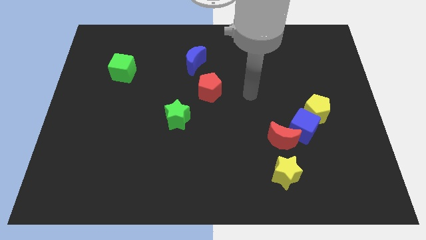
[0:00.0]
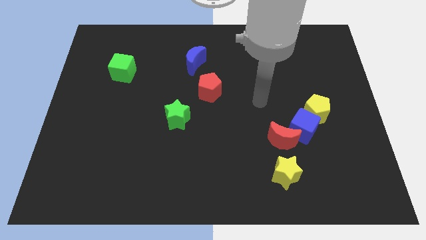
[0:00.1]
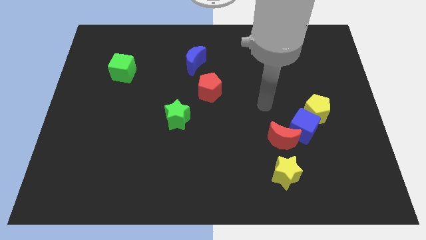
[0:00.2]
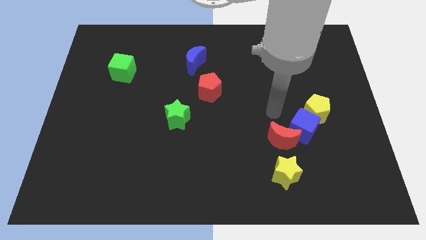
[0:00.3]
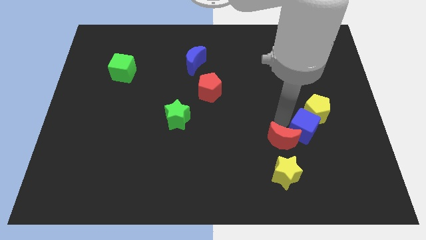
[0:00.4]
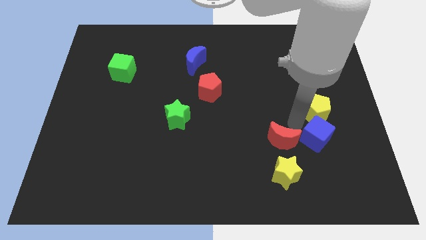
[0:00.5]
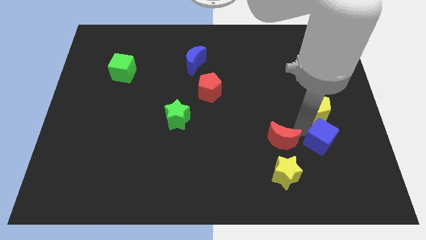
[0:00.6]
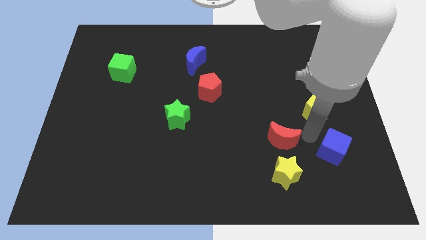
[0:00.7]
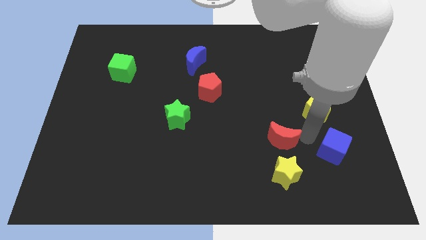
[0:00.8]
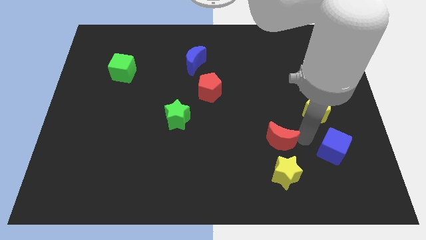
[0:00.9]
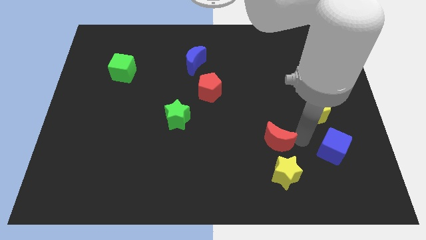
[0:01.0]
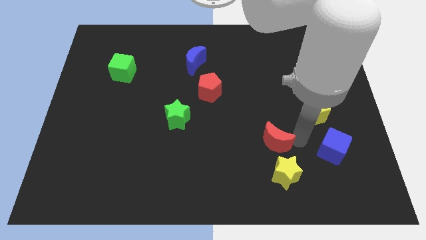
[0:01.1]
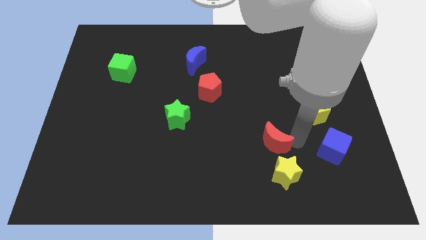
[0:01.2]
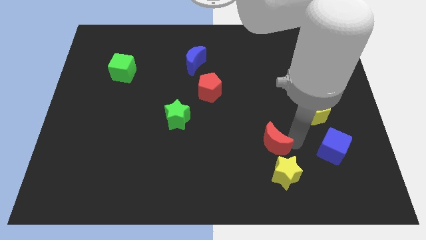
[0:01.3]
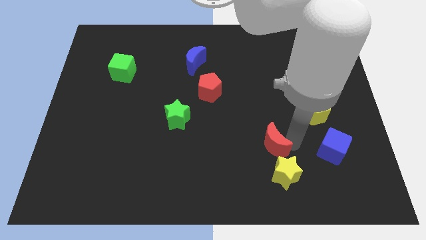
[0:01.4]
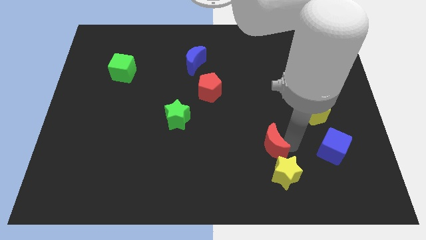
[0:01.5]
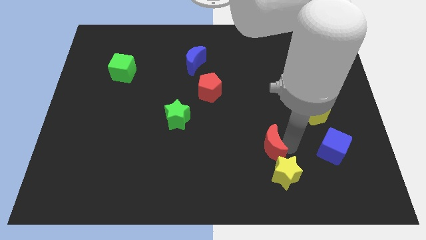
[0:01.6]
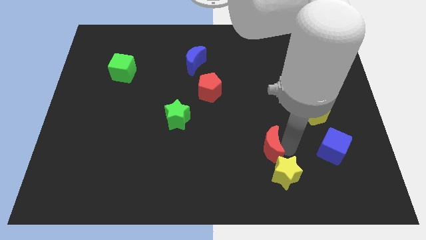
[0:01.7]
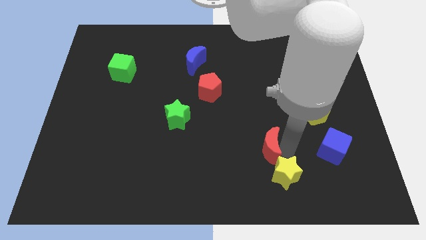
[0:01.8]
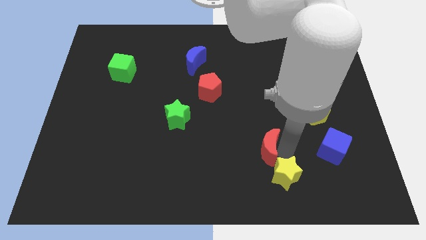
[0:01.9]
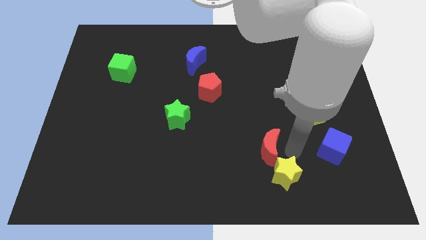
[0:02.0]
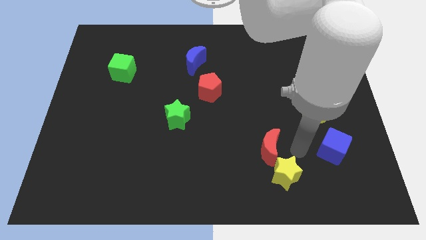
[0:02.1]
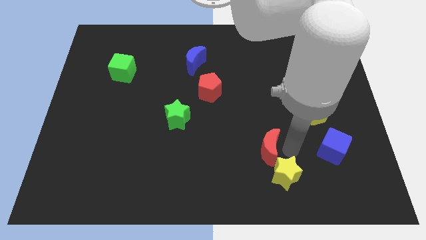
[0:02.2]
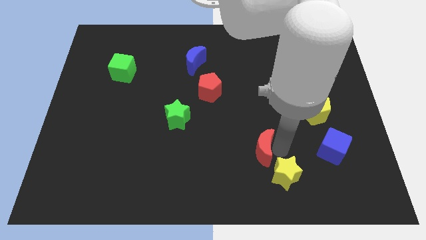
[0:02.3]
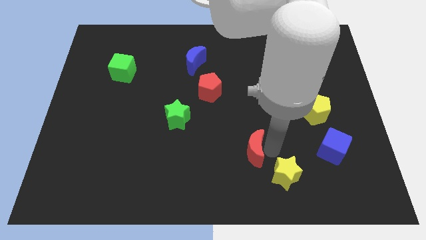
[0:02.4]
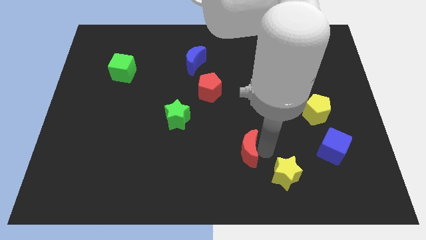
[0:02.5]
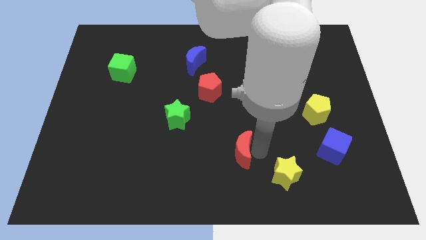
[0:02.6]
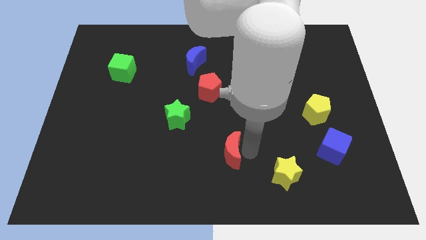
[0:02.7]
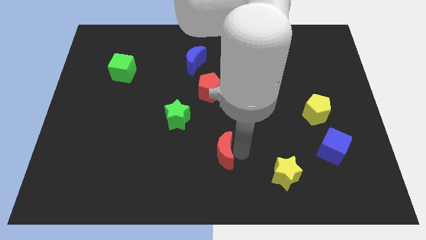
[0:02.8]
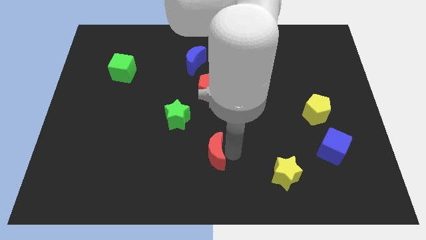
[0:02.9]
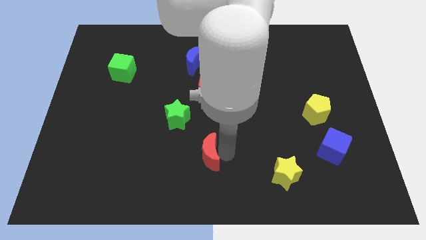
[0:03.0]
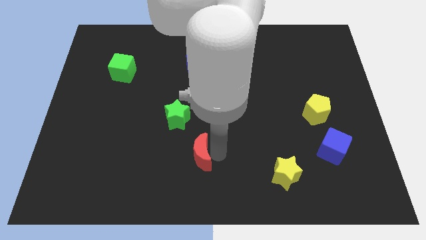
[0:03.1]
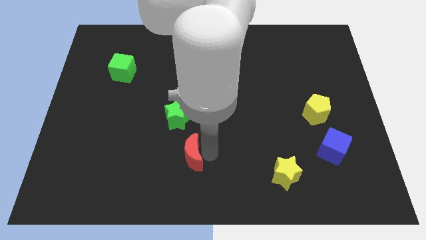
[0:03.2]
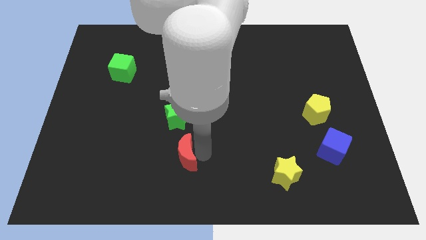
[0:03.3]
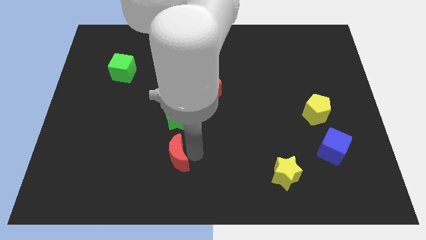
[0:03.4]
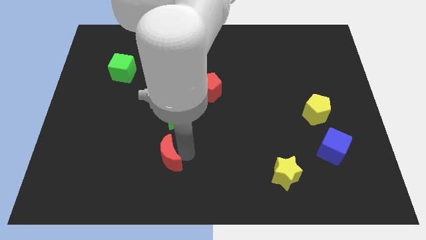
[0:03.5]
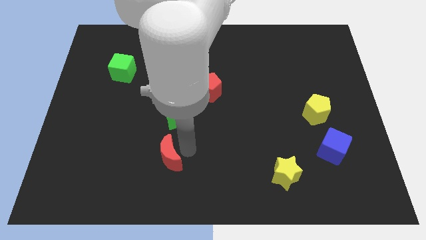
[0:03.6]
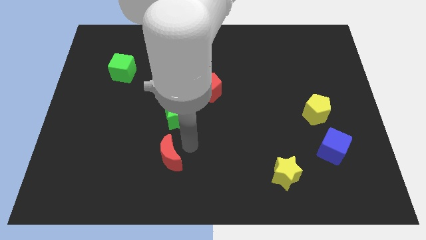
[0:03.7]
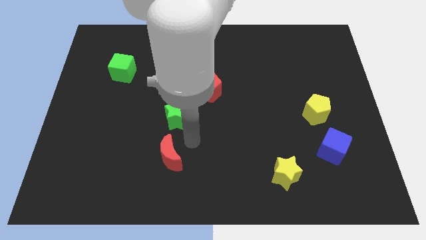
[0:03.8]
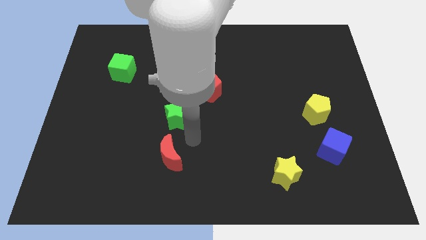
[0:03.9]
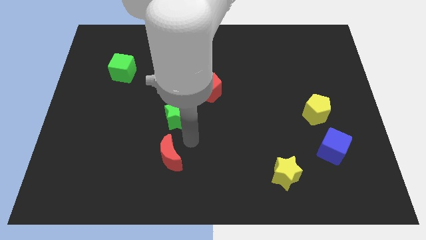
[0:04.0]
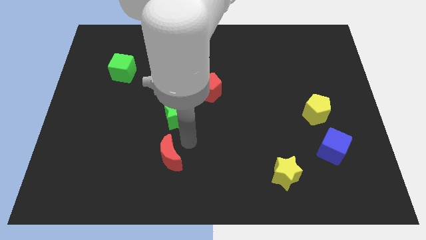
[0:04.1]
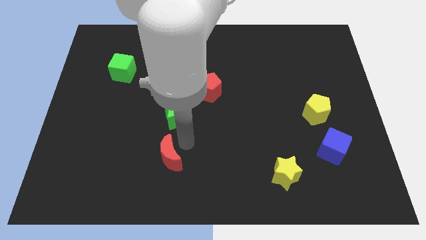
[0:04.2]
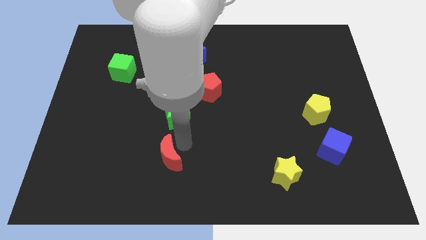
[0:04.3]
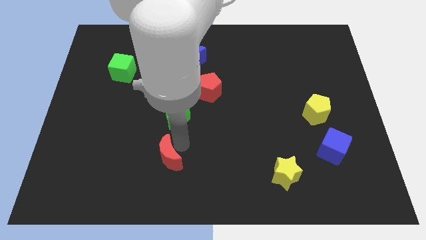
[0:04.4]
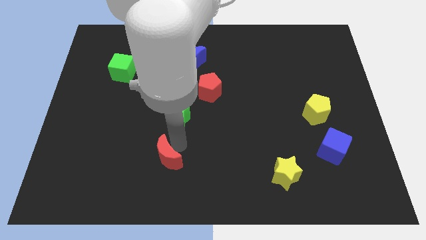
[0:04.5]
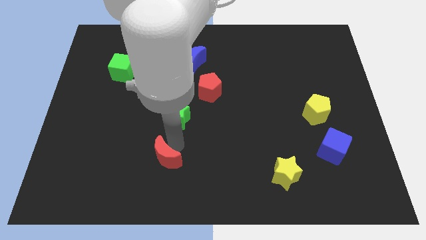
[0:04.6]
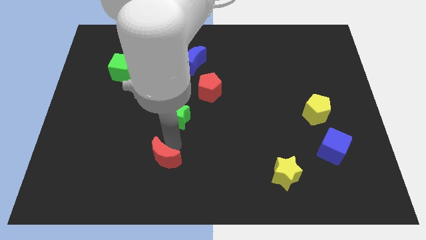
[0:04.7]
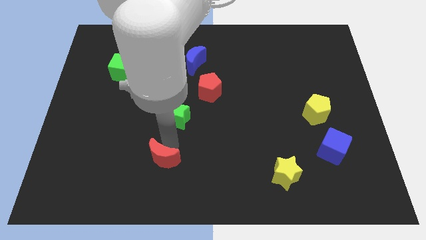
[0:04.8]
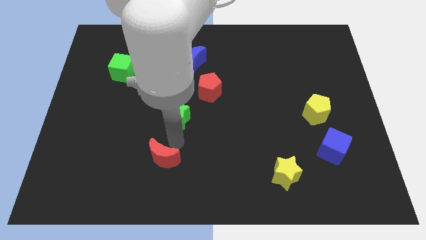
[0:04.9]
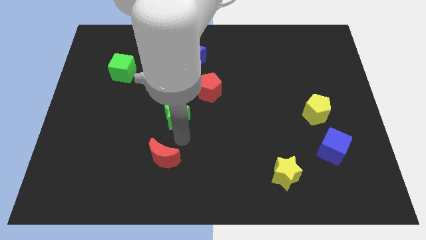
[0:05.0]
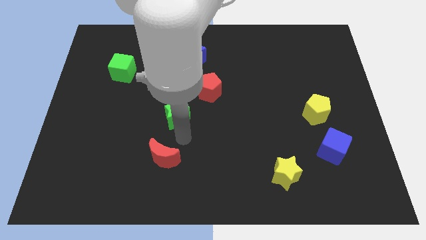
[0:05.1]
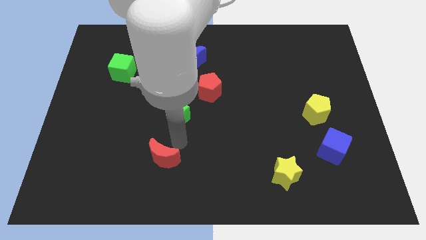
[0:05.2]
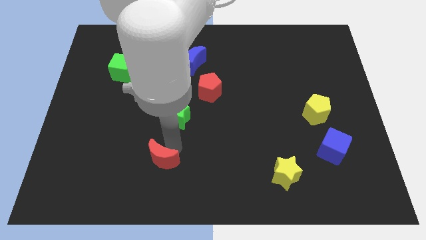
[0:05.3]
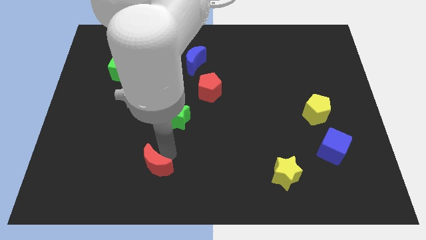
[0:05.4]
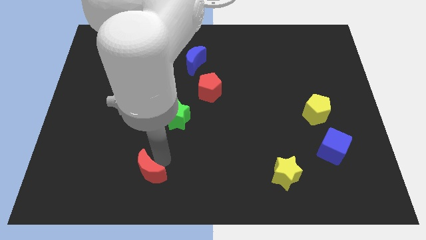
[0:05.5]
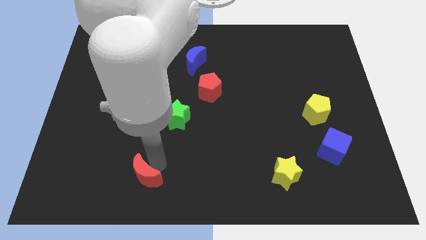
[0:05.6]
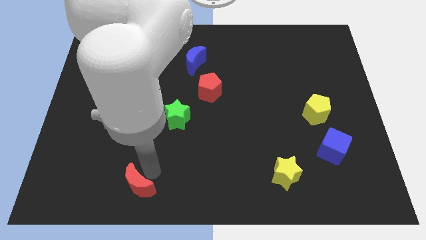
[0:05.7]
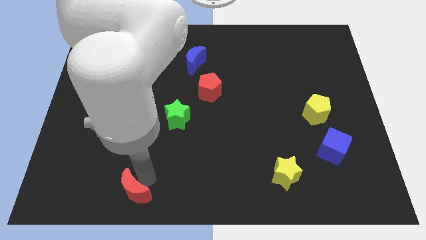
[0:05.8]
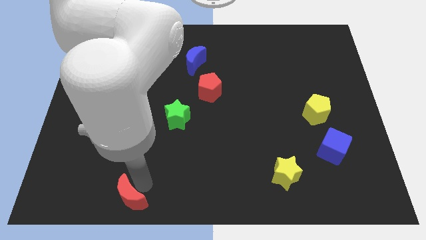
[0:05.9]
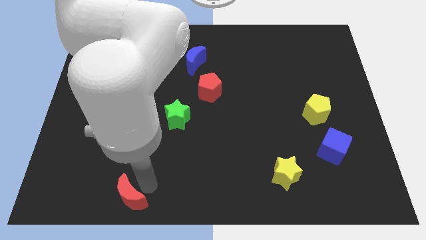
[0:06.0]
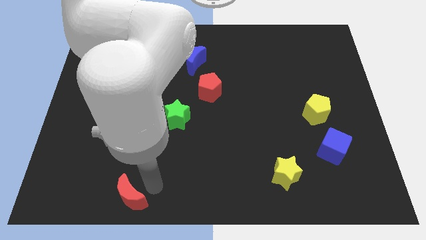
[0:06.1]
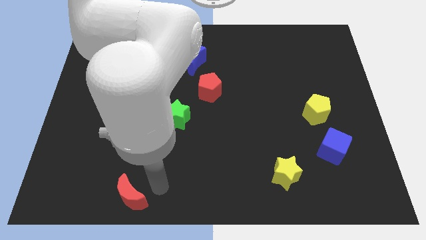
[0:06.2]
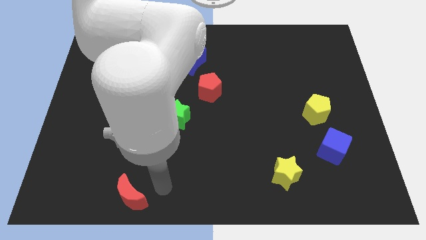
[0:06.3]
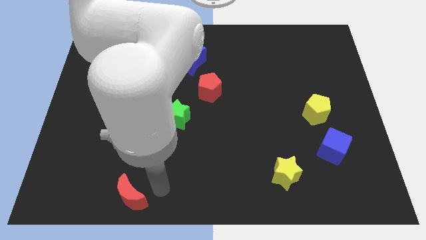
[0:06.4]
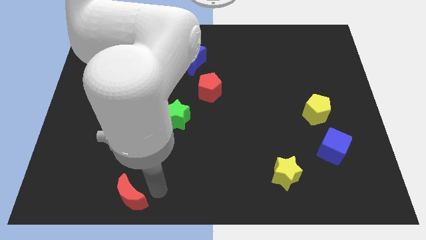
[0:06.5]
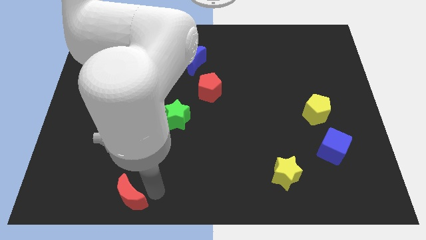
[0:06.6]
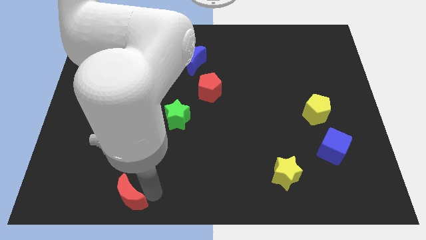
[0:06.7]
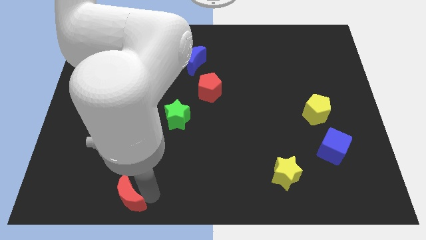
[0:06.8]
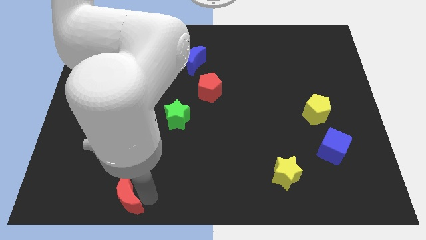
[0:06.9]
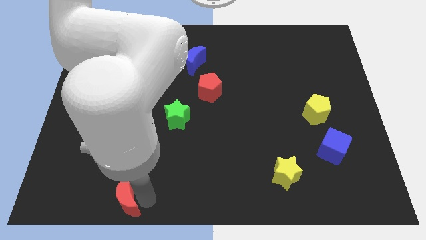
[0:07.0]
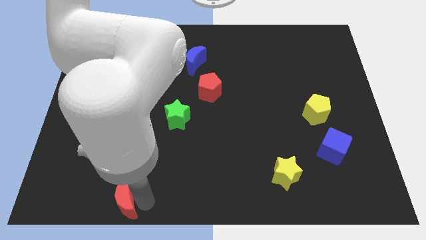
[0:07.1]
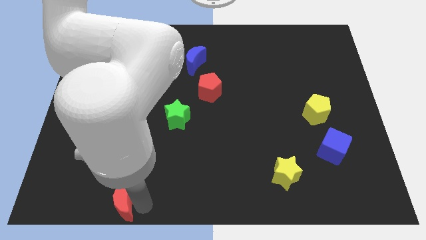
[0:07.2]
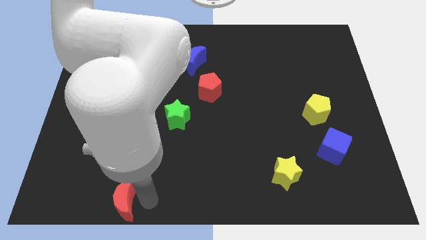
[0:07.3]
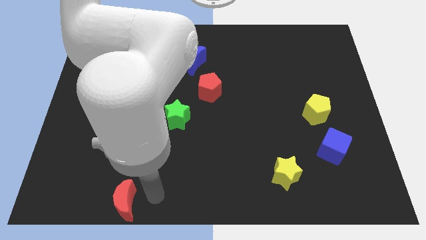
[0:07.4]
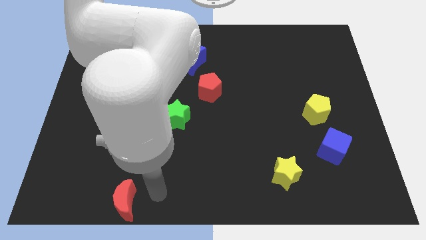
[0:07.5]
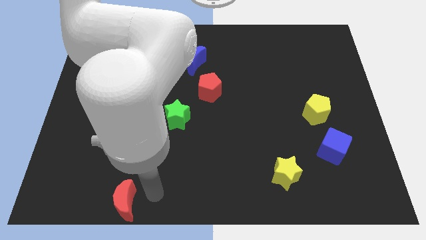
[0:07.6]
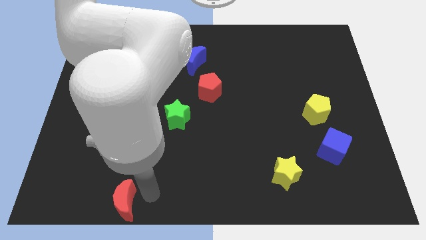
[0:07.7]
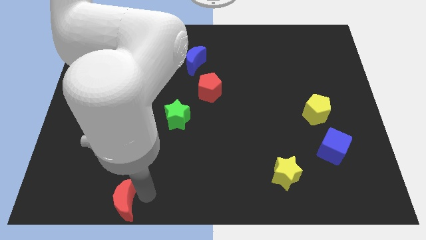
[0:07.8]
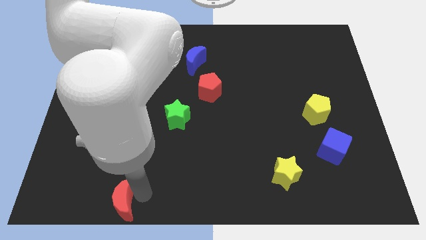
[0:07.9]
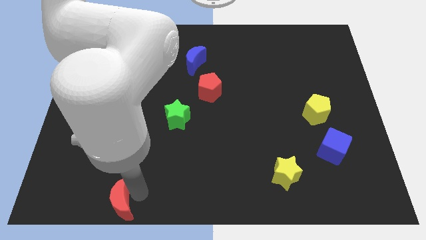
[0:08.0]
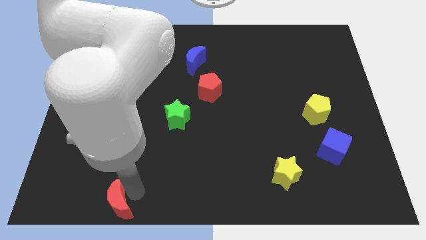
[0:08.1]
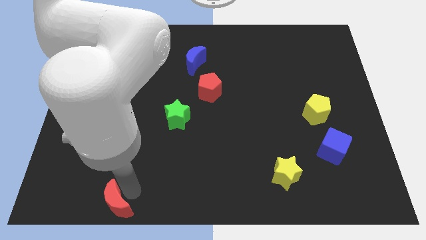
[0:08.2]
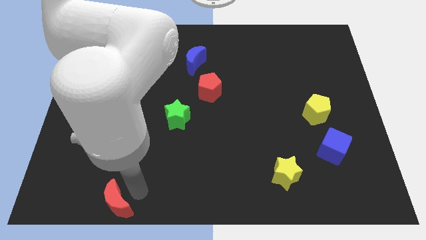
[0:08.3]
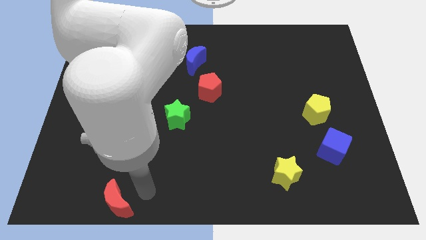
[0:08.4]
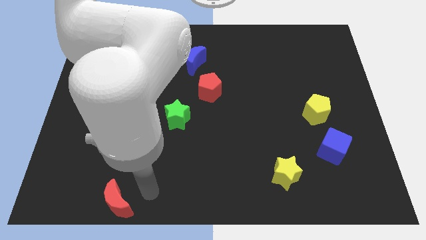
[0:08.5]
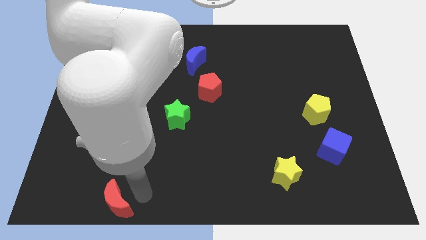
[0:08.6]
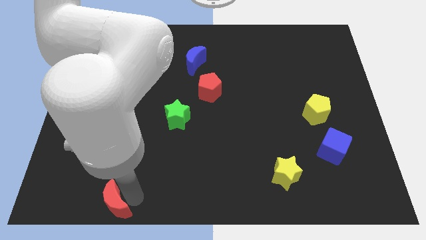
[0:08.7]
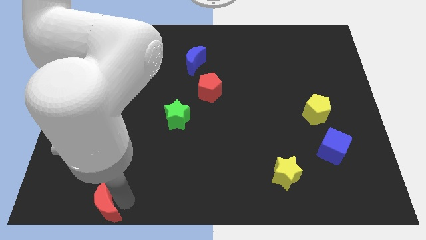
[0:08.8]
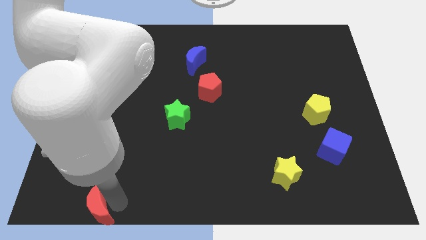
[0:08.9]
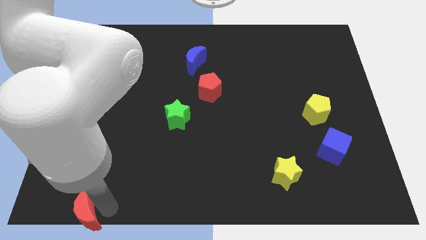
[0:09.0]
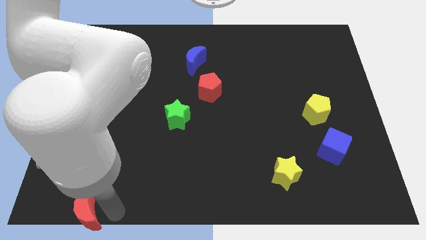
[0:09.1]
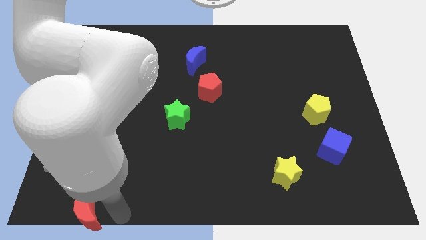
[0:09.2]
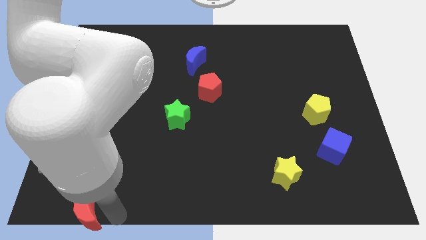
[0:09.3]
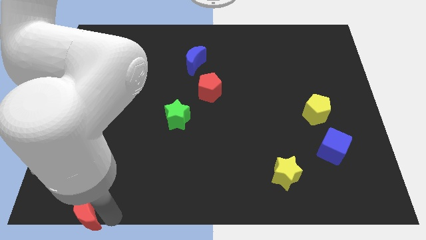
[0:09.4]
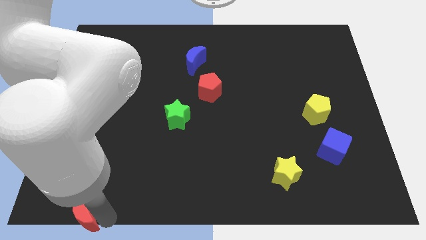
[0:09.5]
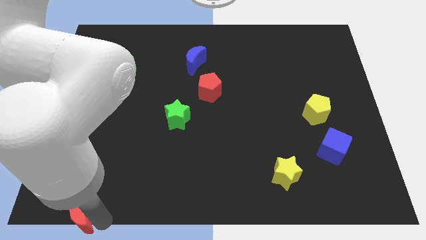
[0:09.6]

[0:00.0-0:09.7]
put the red moon to the bottom left corner
